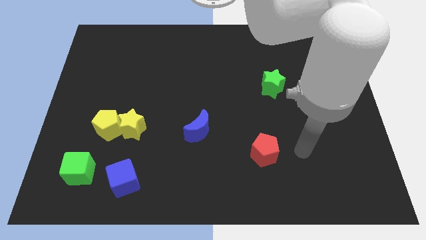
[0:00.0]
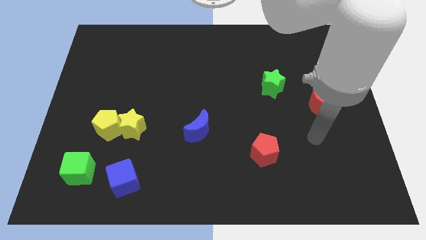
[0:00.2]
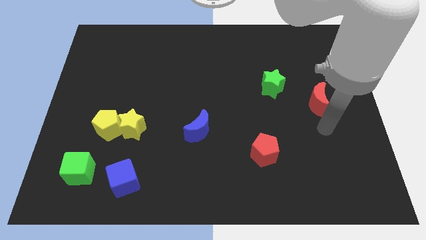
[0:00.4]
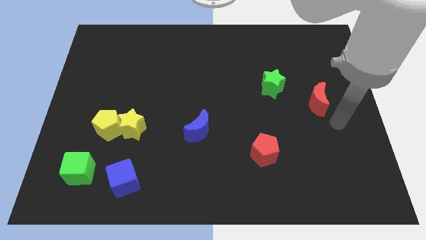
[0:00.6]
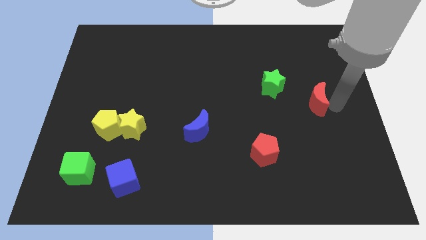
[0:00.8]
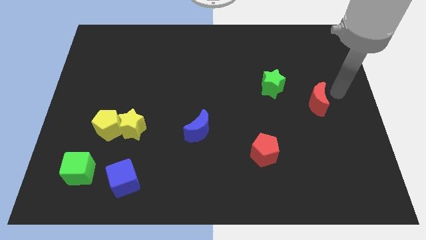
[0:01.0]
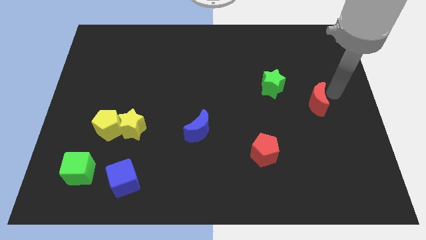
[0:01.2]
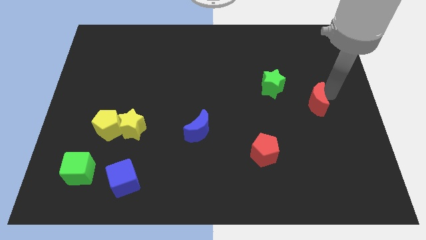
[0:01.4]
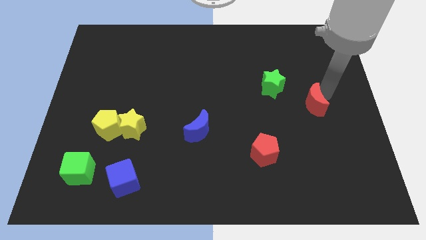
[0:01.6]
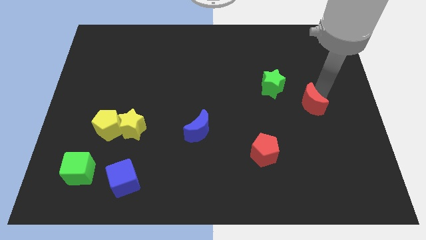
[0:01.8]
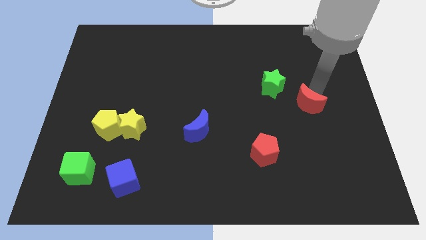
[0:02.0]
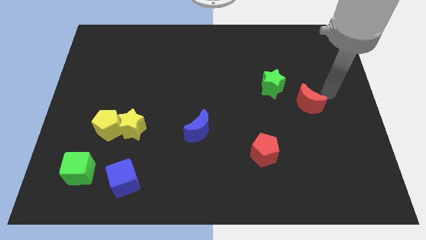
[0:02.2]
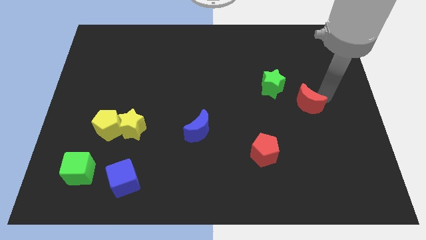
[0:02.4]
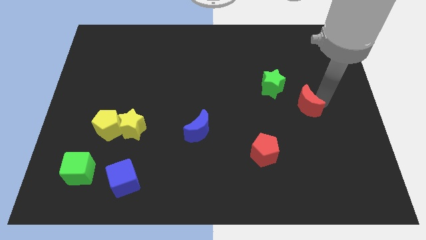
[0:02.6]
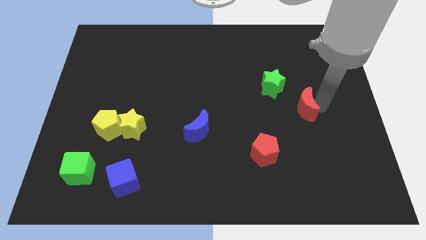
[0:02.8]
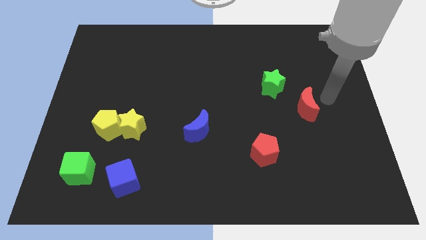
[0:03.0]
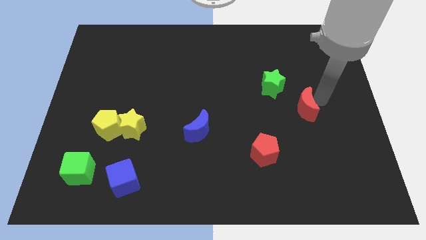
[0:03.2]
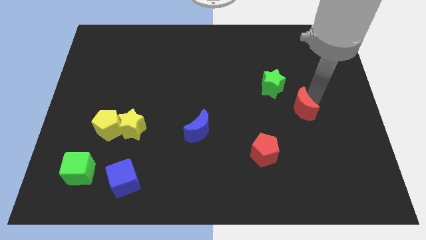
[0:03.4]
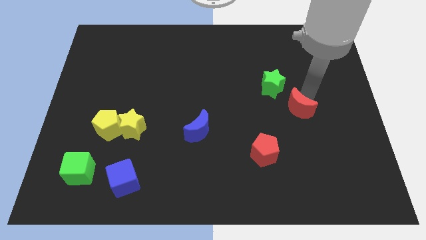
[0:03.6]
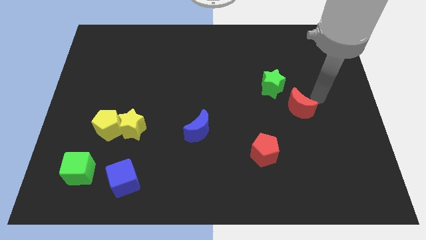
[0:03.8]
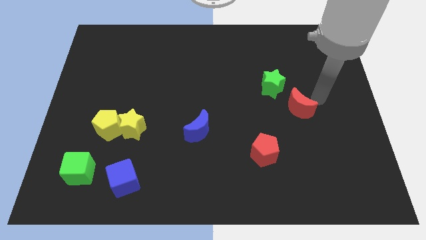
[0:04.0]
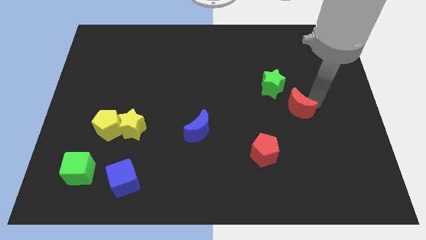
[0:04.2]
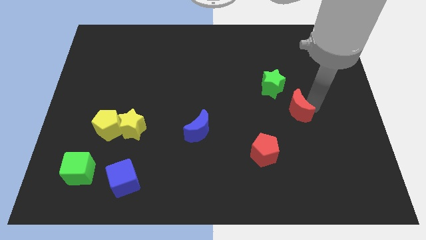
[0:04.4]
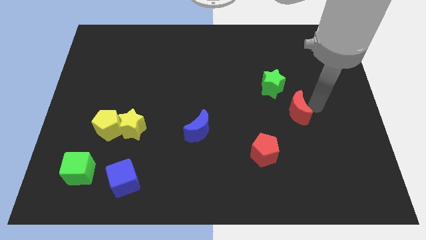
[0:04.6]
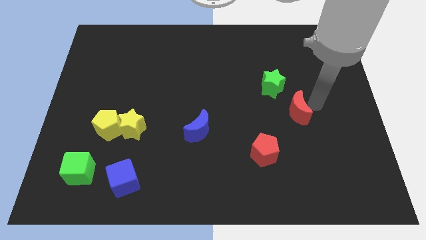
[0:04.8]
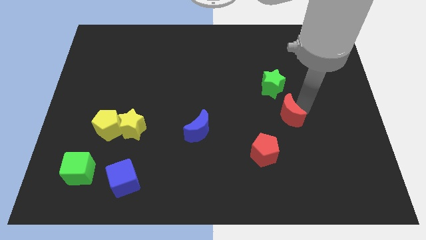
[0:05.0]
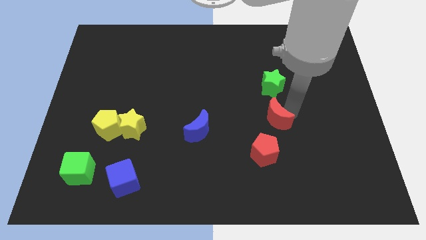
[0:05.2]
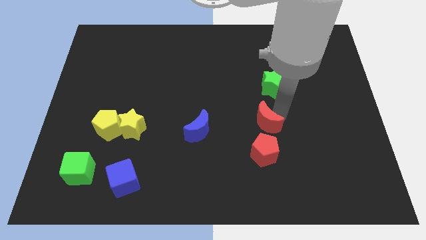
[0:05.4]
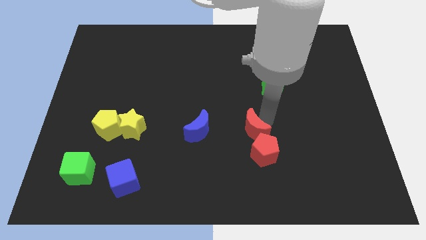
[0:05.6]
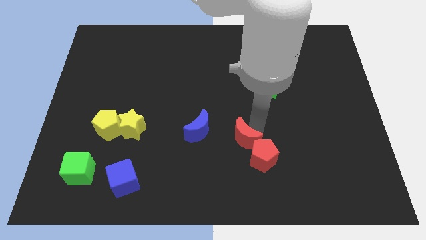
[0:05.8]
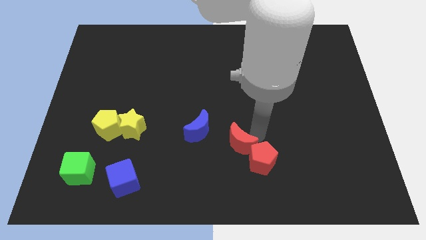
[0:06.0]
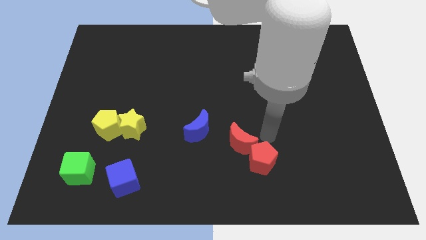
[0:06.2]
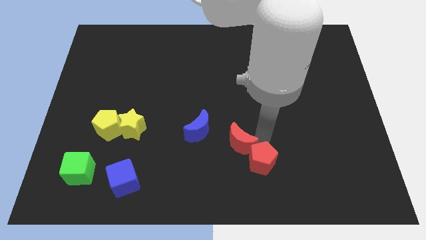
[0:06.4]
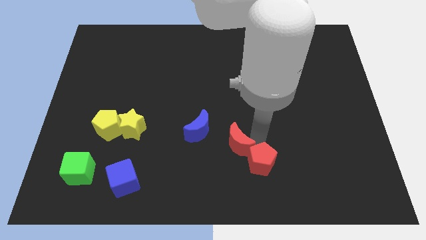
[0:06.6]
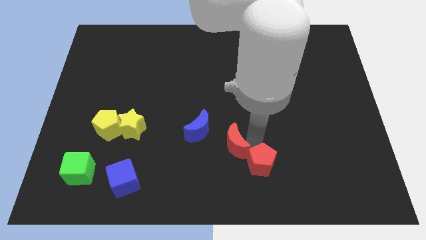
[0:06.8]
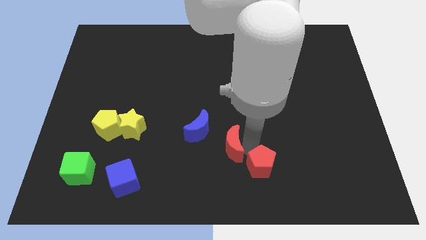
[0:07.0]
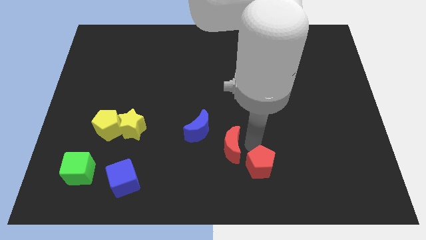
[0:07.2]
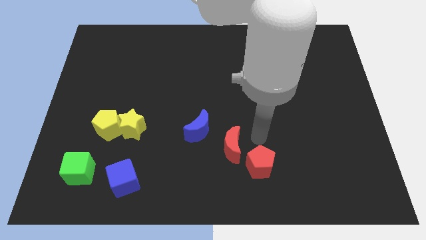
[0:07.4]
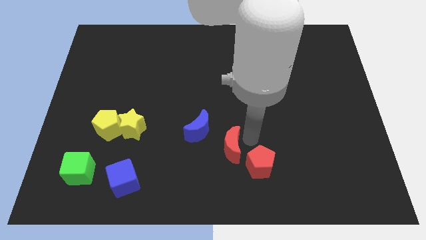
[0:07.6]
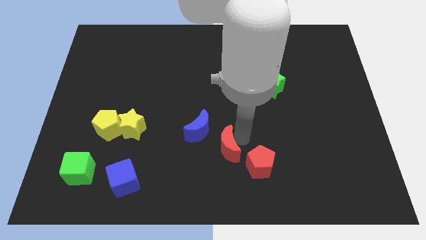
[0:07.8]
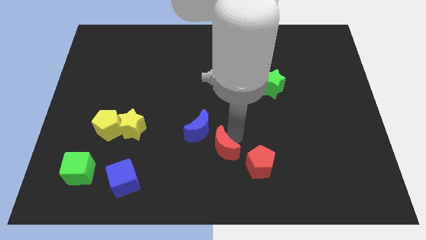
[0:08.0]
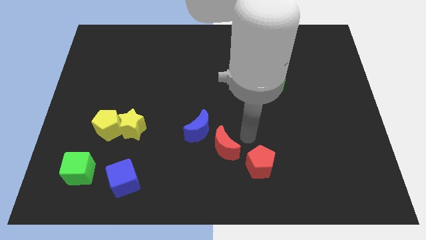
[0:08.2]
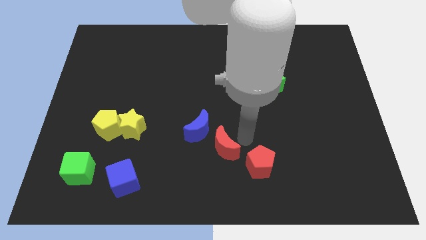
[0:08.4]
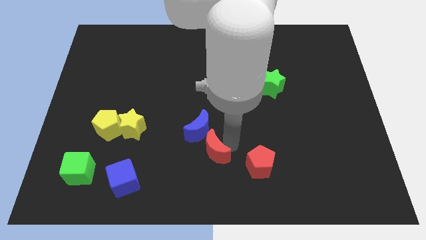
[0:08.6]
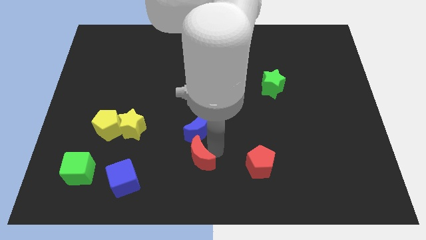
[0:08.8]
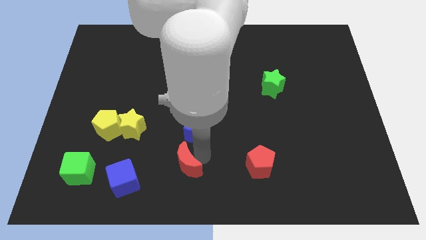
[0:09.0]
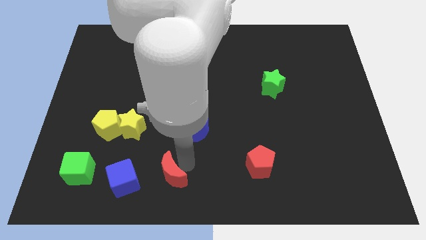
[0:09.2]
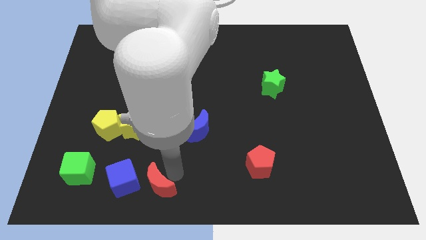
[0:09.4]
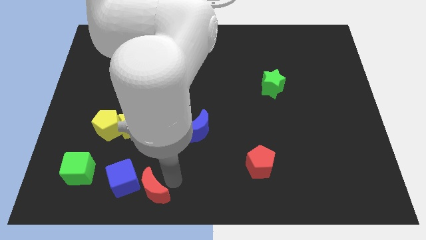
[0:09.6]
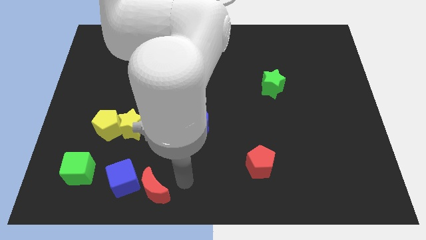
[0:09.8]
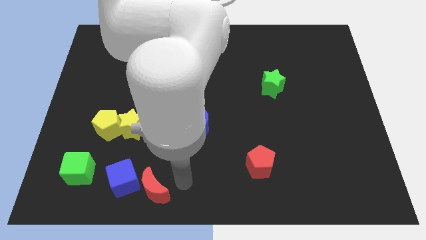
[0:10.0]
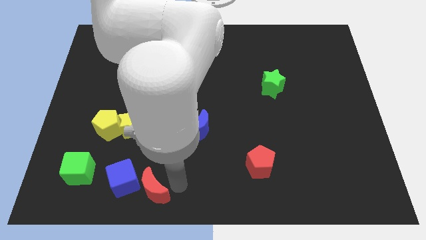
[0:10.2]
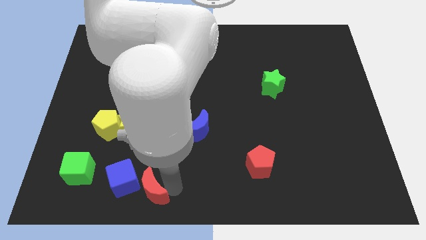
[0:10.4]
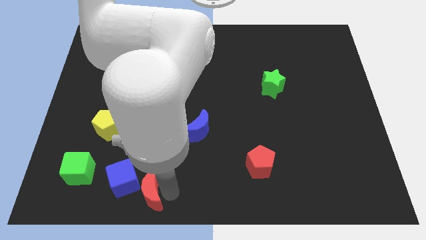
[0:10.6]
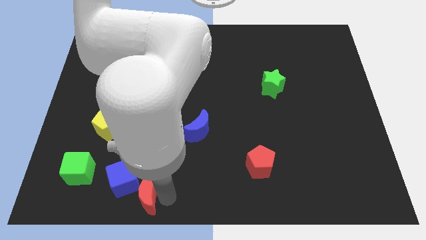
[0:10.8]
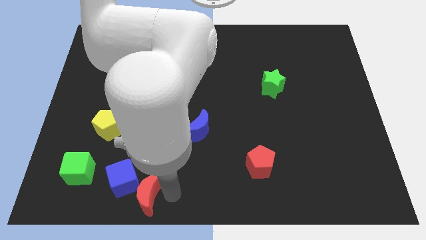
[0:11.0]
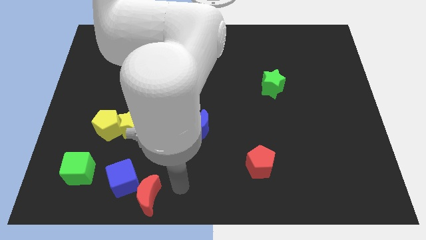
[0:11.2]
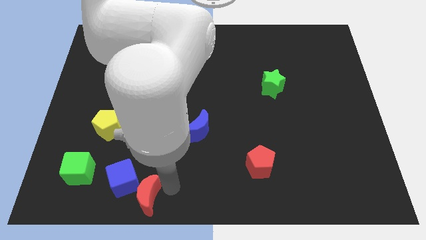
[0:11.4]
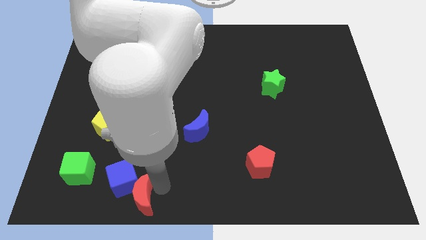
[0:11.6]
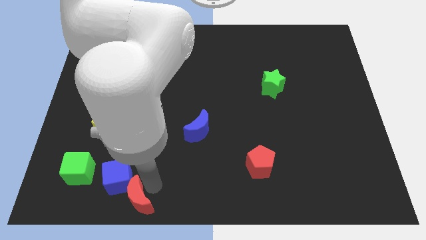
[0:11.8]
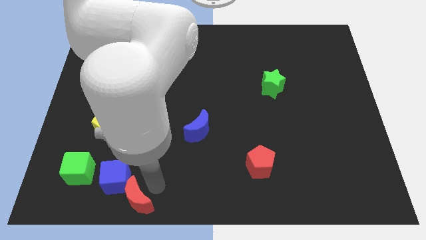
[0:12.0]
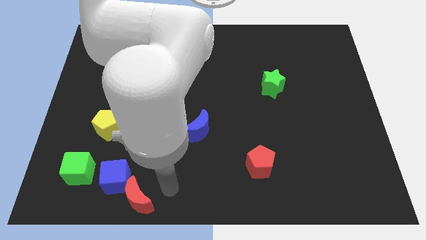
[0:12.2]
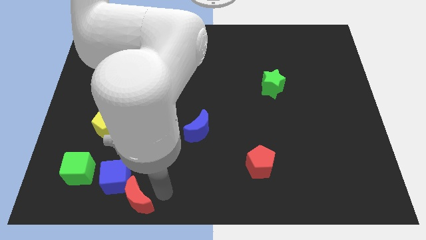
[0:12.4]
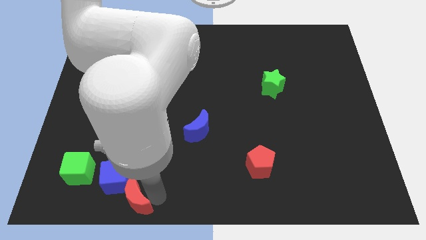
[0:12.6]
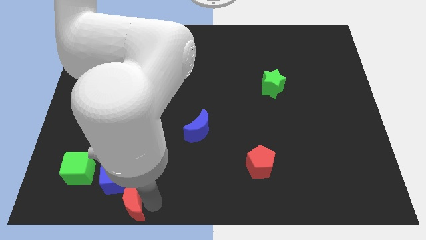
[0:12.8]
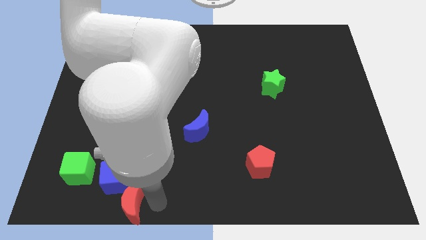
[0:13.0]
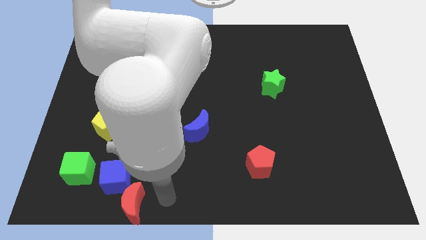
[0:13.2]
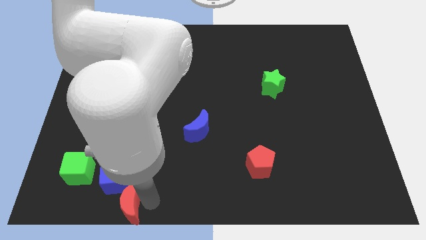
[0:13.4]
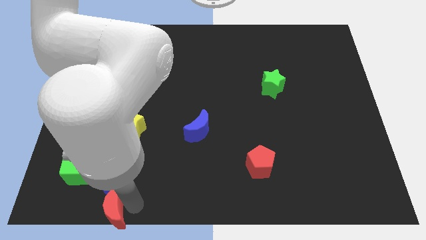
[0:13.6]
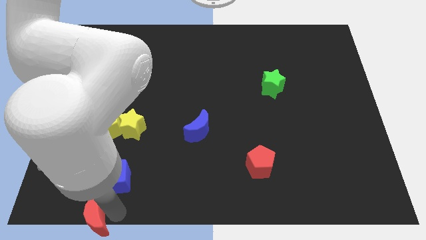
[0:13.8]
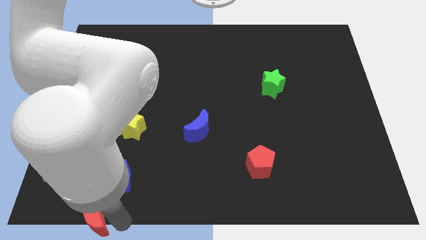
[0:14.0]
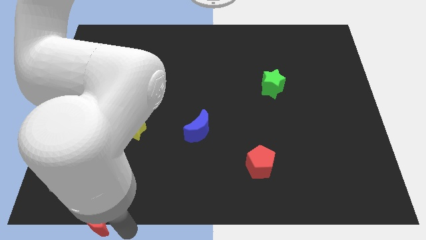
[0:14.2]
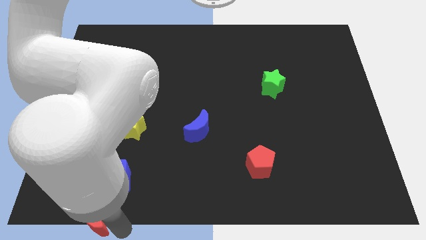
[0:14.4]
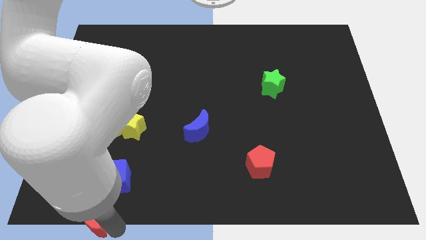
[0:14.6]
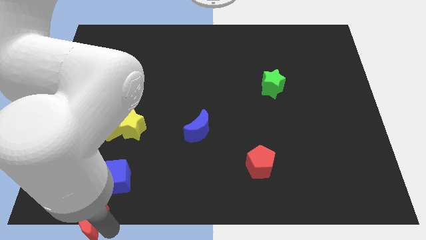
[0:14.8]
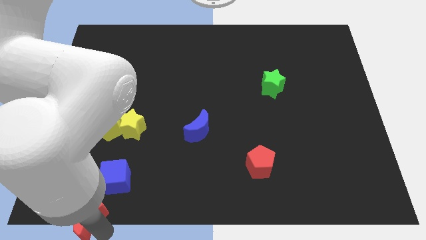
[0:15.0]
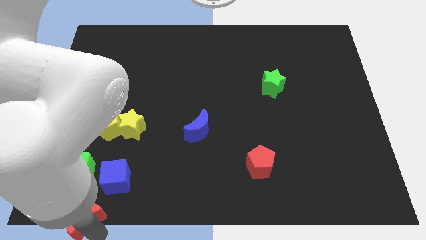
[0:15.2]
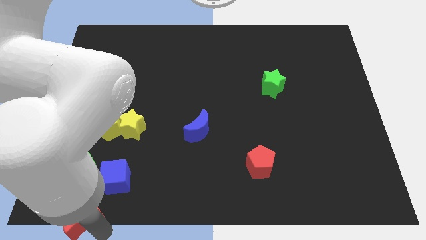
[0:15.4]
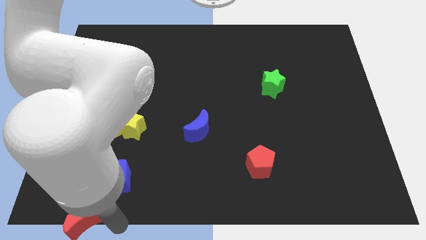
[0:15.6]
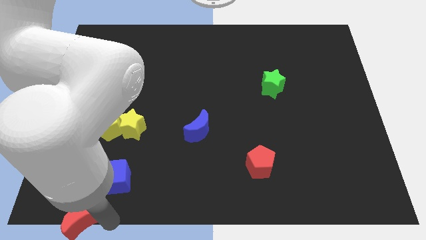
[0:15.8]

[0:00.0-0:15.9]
move the red moon to the lower left corner
